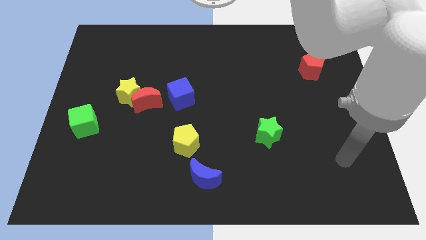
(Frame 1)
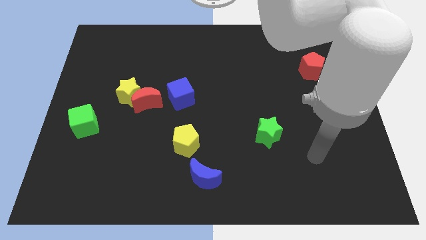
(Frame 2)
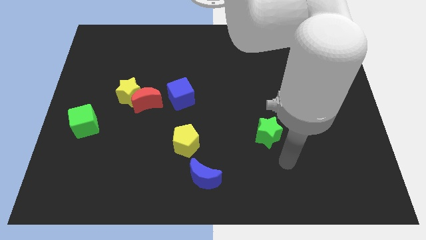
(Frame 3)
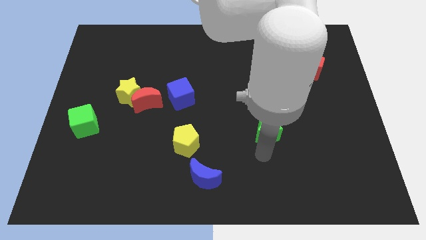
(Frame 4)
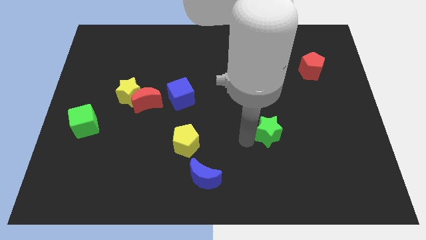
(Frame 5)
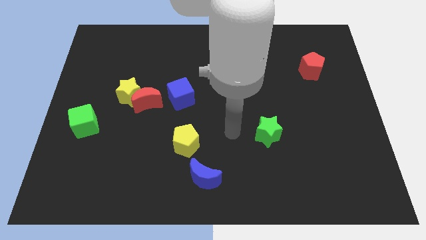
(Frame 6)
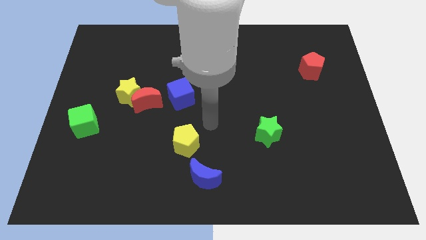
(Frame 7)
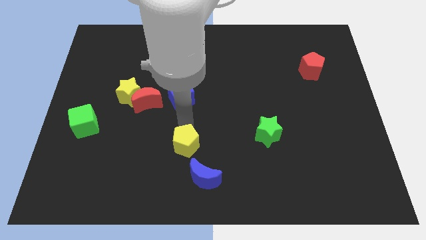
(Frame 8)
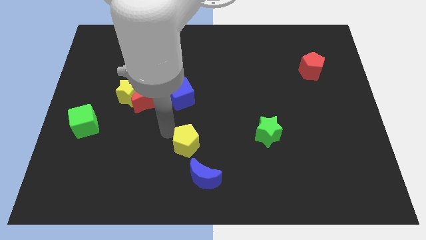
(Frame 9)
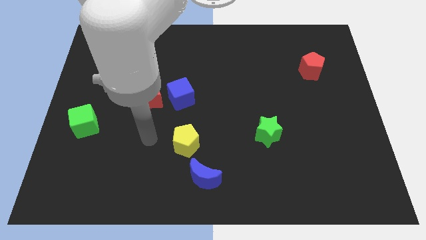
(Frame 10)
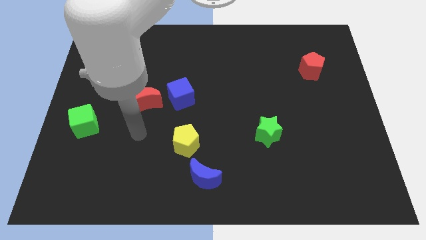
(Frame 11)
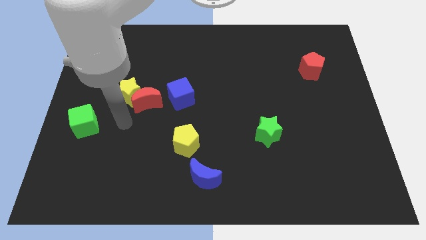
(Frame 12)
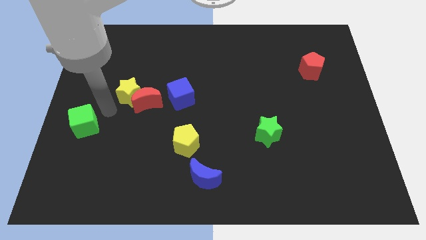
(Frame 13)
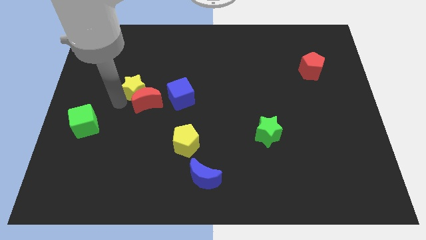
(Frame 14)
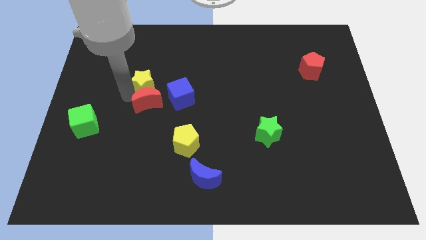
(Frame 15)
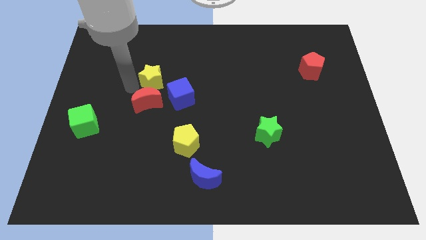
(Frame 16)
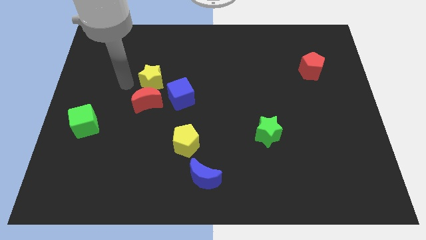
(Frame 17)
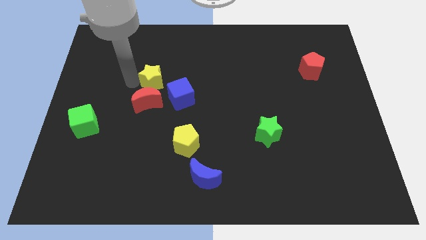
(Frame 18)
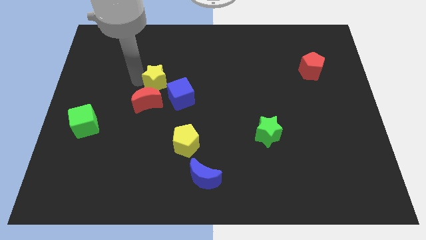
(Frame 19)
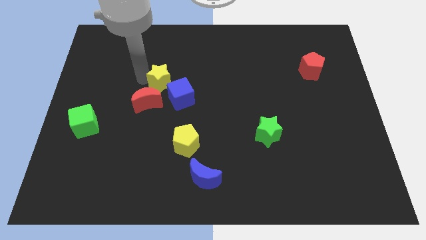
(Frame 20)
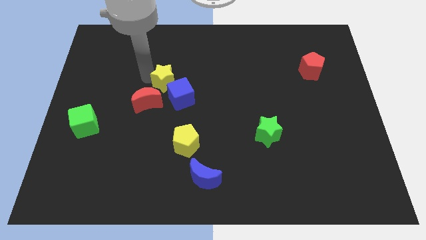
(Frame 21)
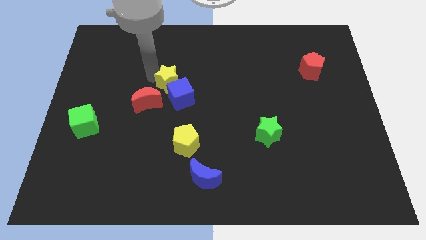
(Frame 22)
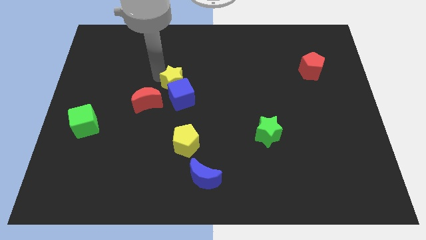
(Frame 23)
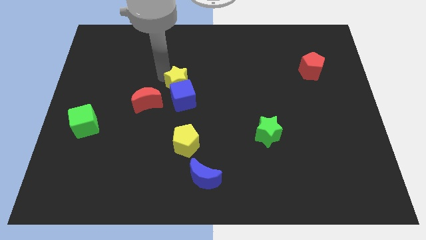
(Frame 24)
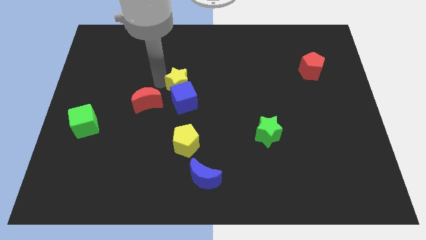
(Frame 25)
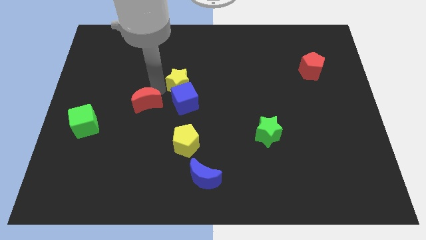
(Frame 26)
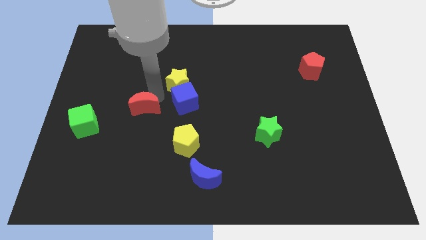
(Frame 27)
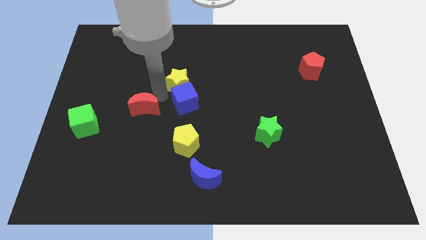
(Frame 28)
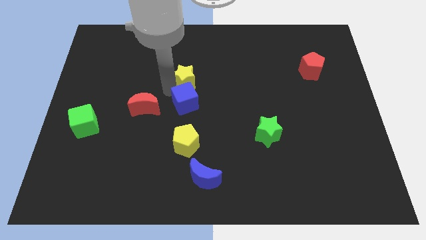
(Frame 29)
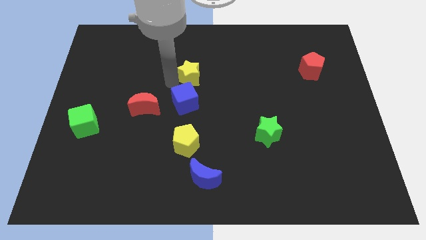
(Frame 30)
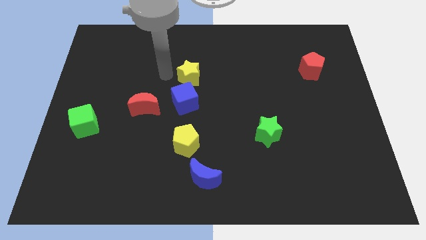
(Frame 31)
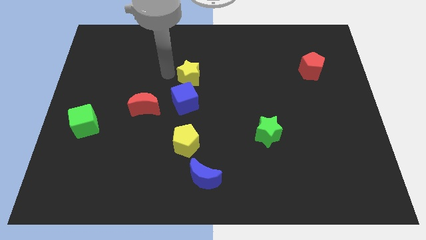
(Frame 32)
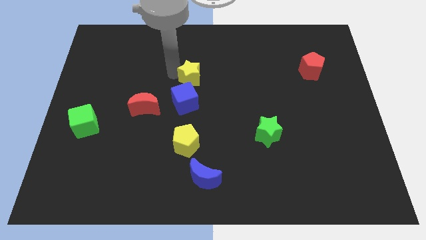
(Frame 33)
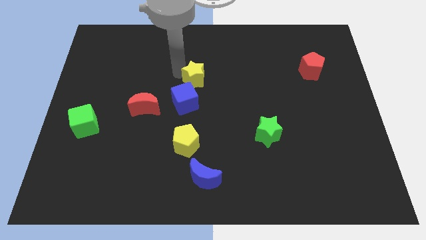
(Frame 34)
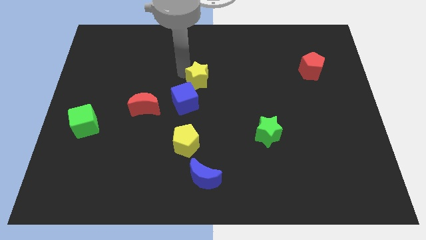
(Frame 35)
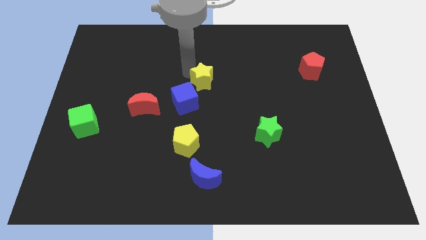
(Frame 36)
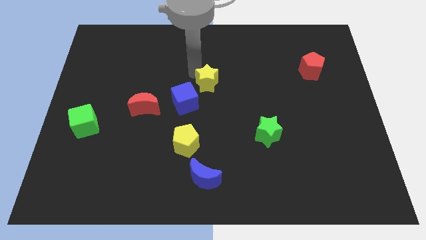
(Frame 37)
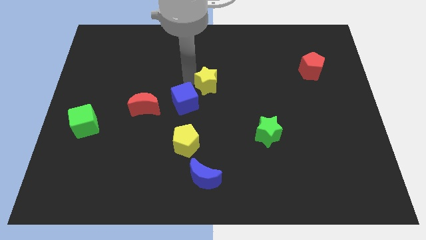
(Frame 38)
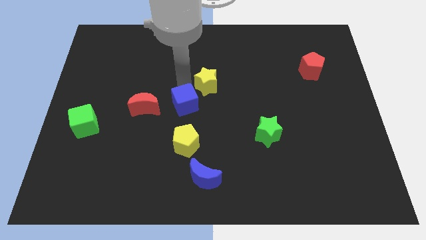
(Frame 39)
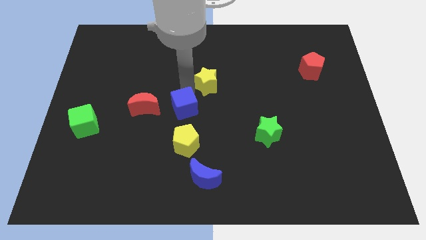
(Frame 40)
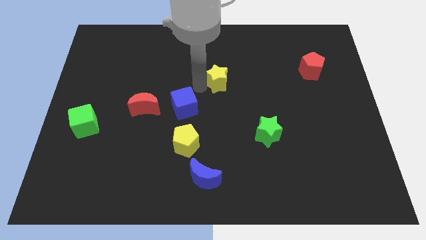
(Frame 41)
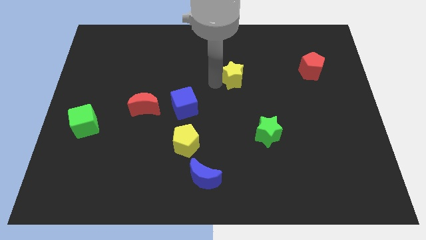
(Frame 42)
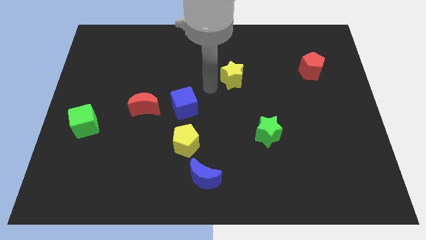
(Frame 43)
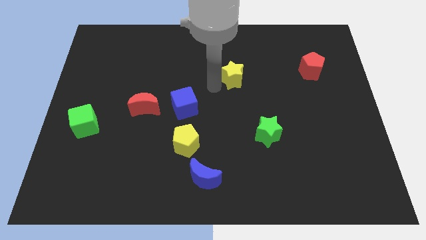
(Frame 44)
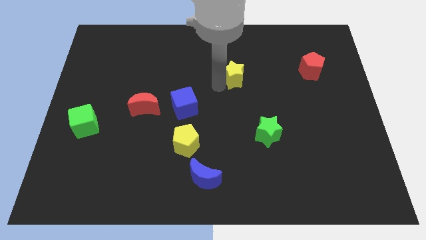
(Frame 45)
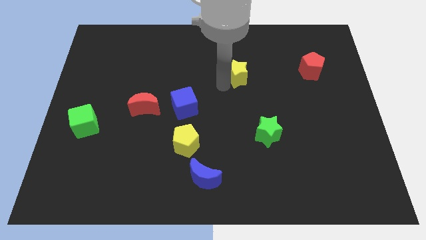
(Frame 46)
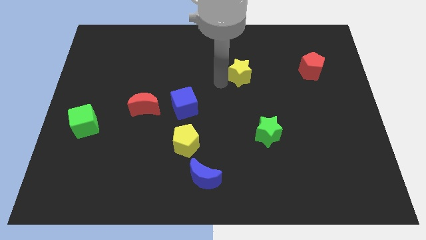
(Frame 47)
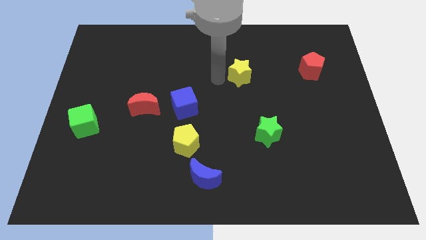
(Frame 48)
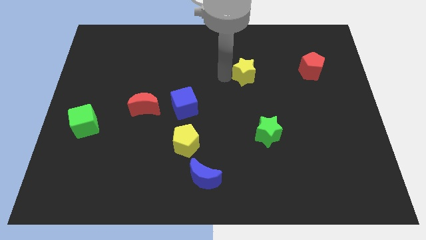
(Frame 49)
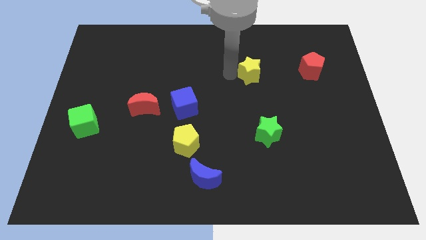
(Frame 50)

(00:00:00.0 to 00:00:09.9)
put the yellow star to the left of the red pentagon

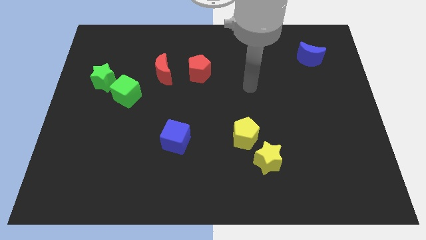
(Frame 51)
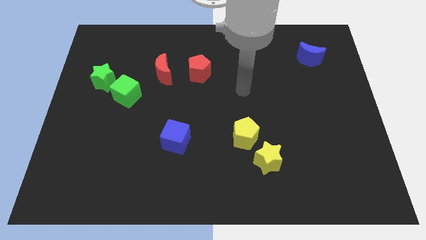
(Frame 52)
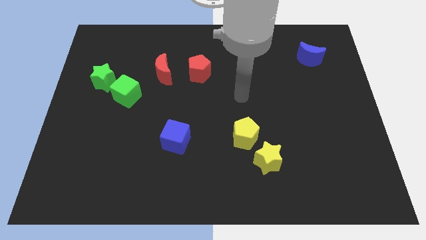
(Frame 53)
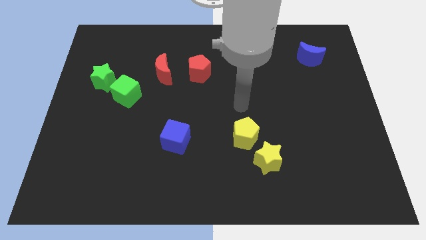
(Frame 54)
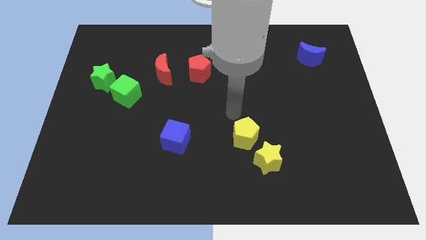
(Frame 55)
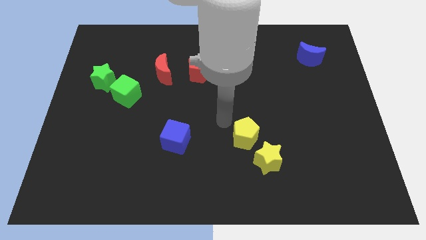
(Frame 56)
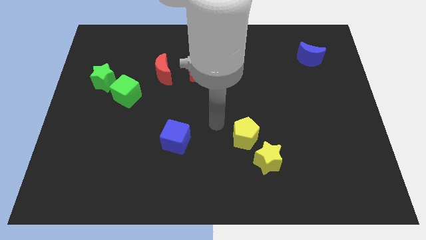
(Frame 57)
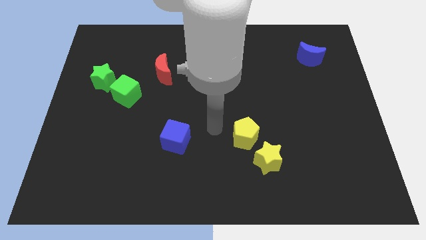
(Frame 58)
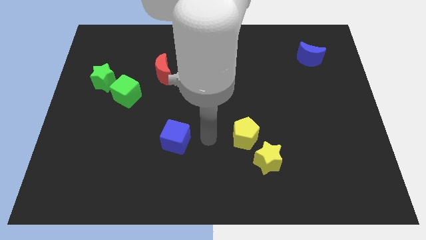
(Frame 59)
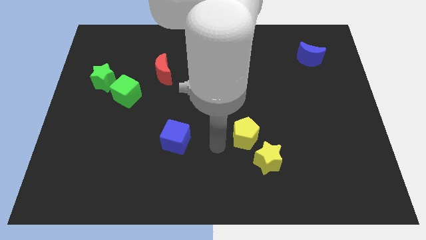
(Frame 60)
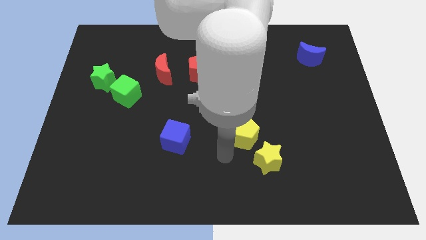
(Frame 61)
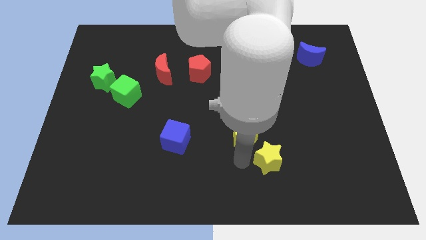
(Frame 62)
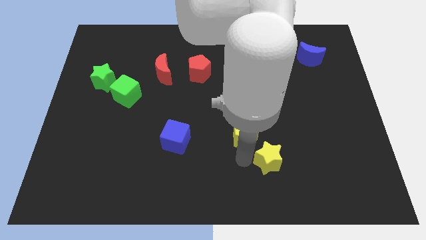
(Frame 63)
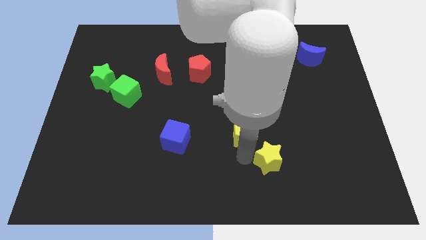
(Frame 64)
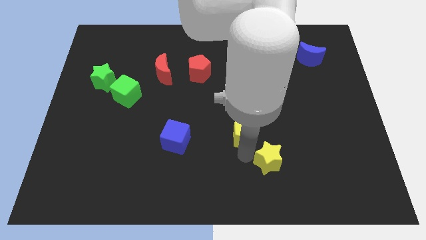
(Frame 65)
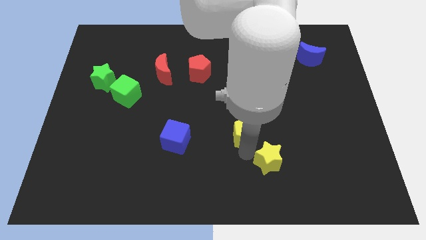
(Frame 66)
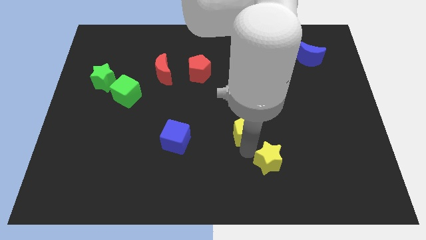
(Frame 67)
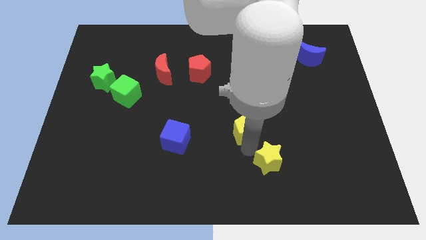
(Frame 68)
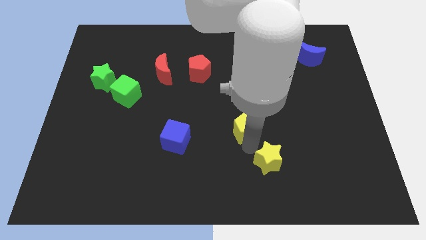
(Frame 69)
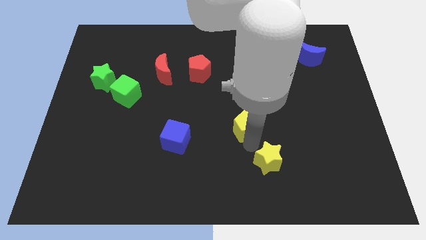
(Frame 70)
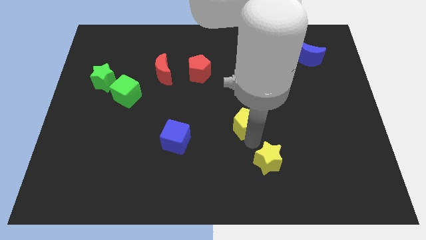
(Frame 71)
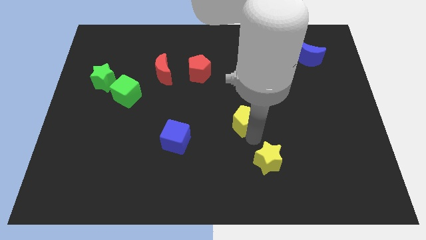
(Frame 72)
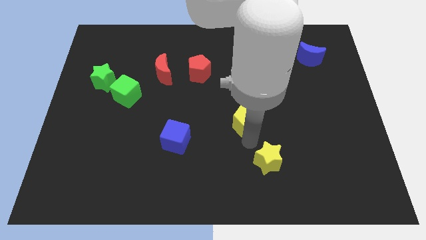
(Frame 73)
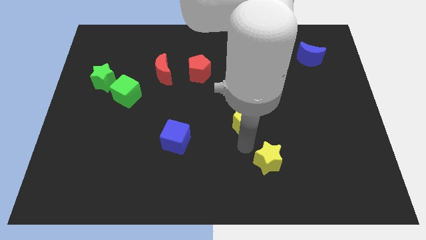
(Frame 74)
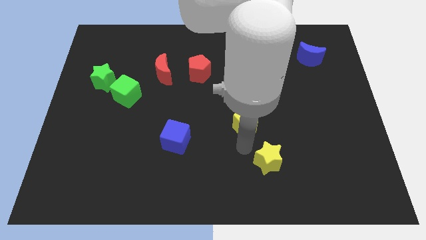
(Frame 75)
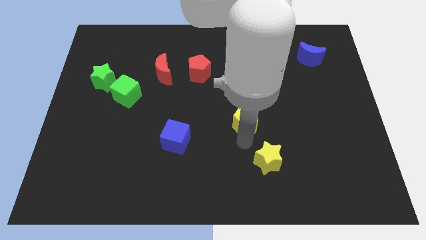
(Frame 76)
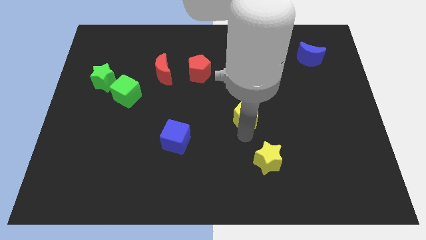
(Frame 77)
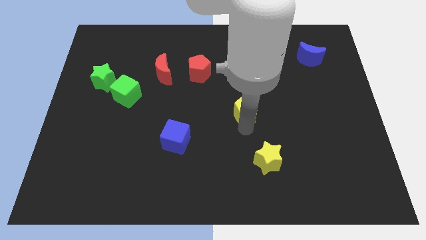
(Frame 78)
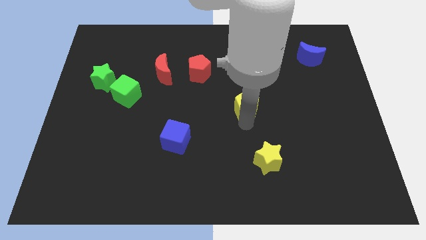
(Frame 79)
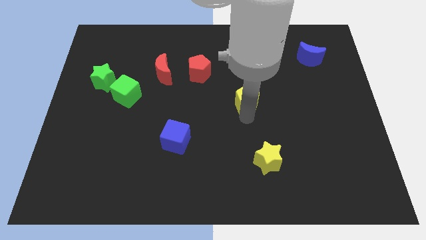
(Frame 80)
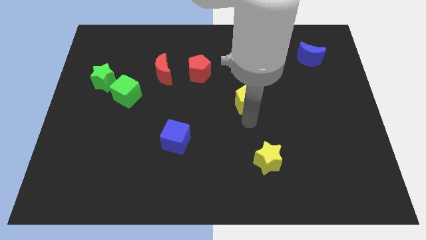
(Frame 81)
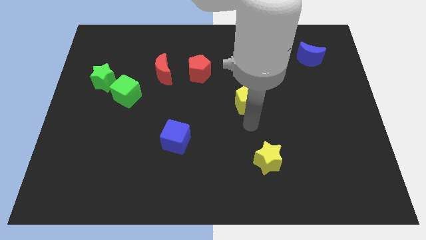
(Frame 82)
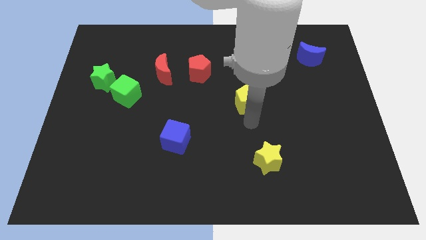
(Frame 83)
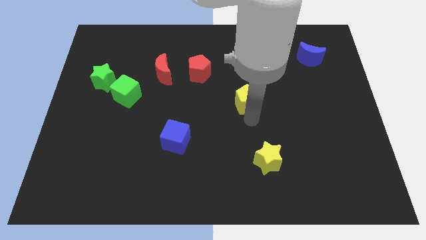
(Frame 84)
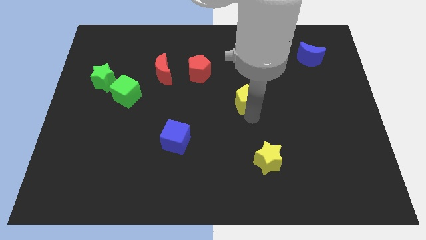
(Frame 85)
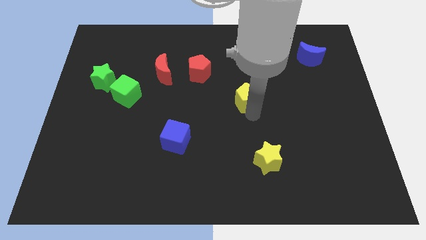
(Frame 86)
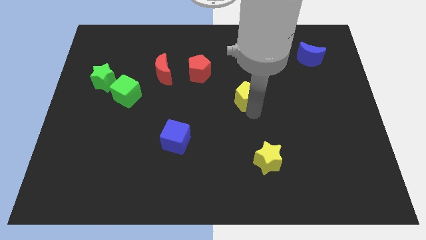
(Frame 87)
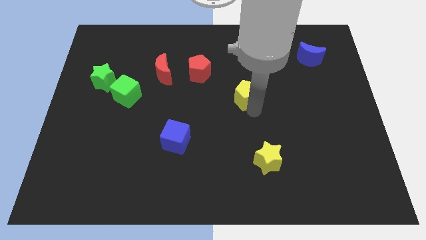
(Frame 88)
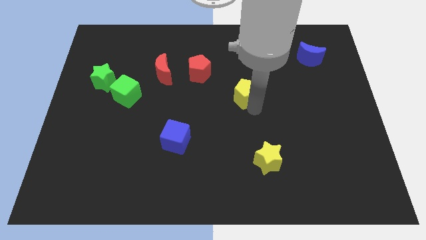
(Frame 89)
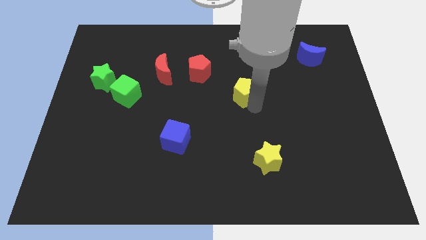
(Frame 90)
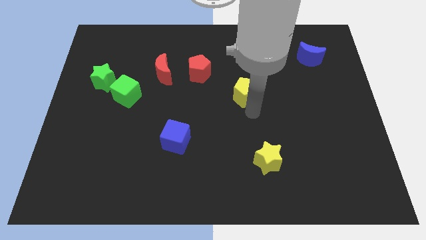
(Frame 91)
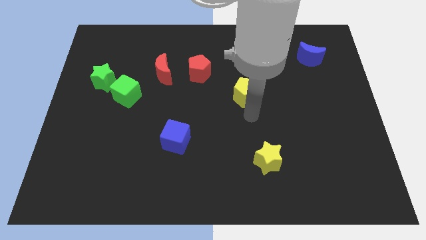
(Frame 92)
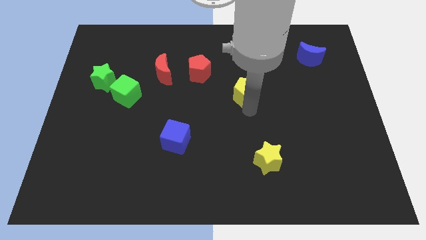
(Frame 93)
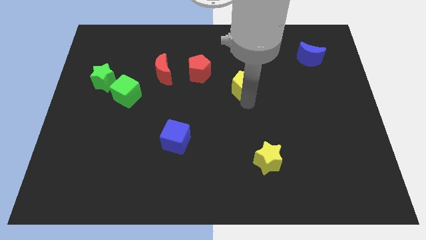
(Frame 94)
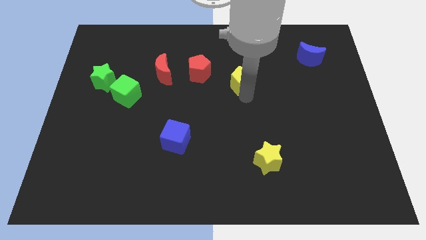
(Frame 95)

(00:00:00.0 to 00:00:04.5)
move the yellow pentagon to the right side of the red pentagon
